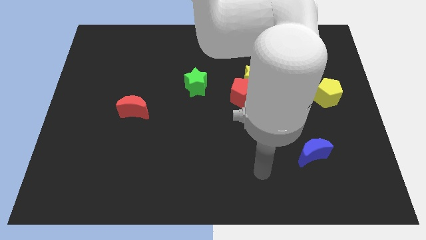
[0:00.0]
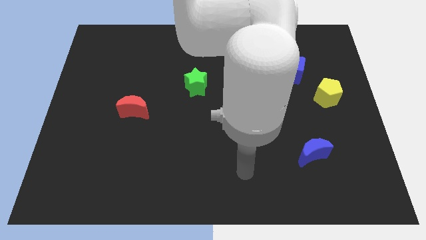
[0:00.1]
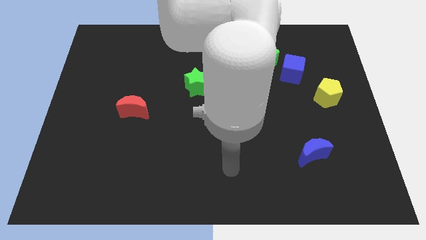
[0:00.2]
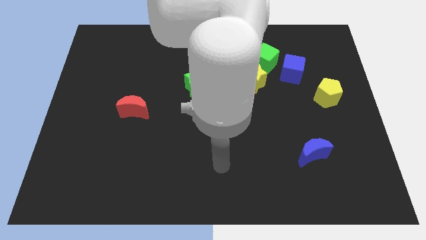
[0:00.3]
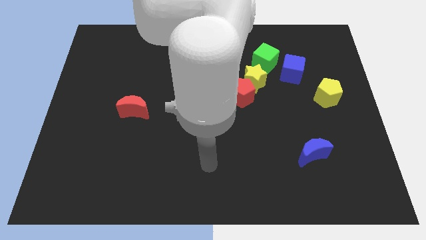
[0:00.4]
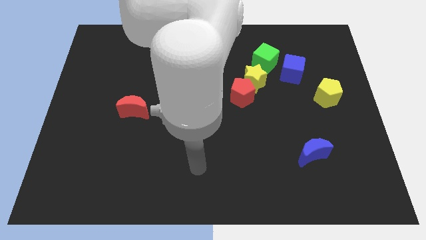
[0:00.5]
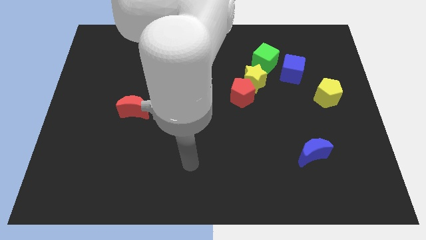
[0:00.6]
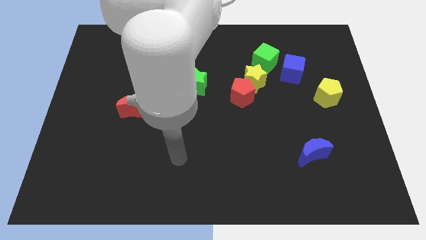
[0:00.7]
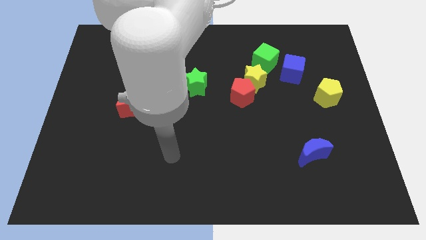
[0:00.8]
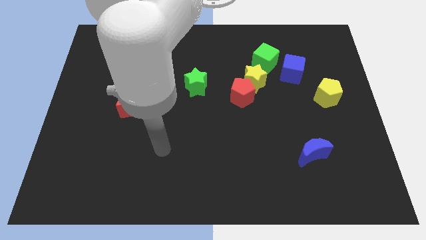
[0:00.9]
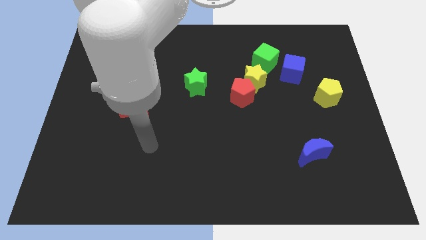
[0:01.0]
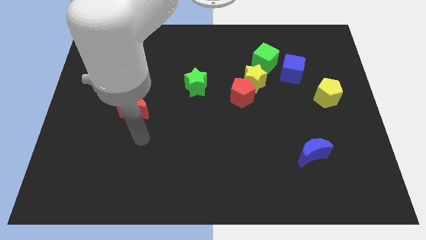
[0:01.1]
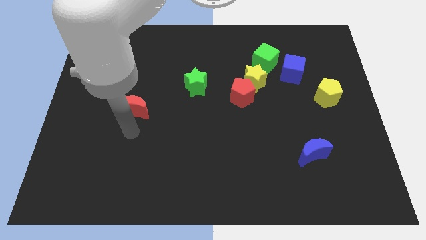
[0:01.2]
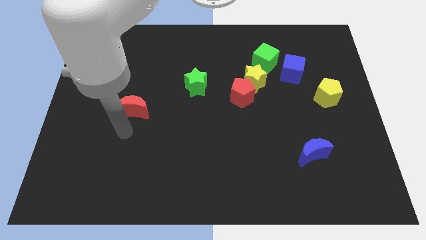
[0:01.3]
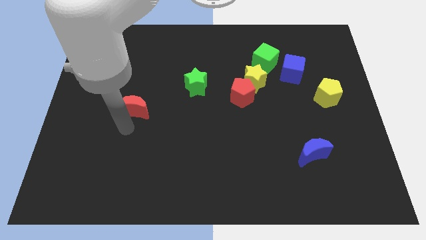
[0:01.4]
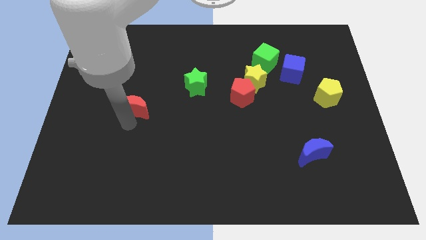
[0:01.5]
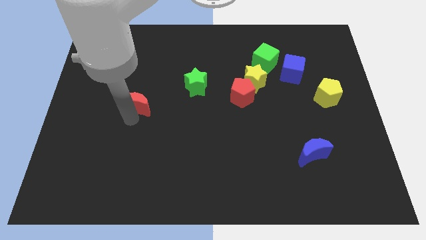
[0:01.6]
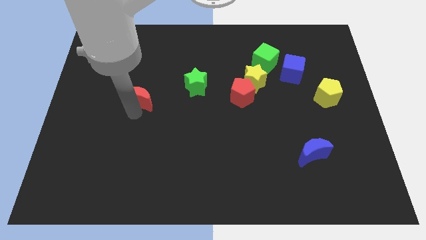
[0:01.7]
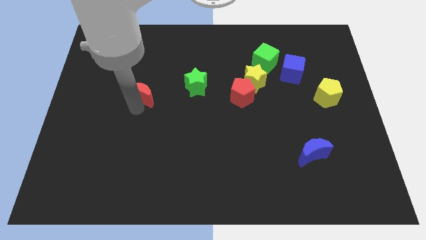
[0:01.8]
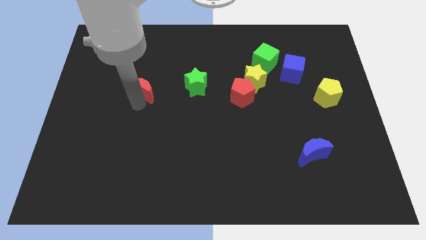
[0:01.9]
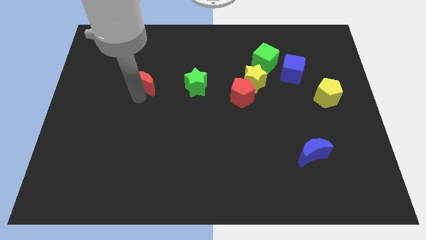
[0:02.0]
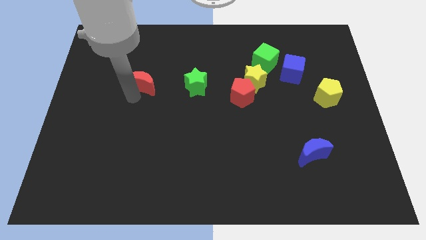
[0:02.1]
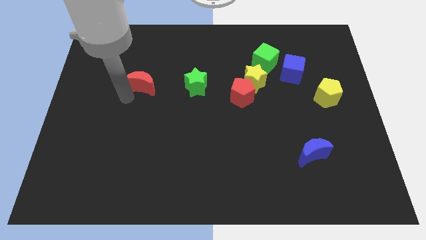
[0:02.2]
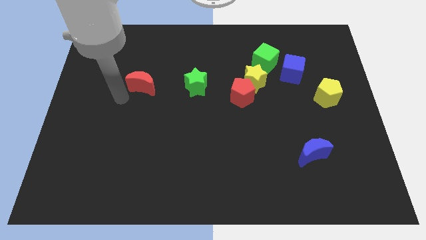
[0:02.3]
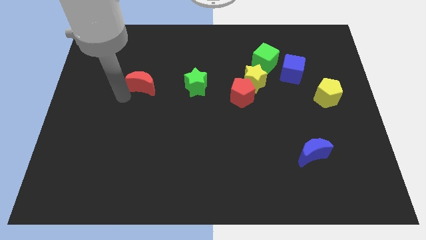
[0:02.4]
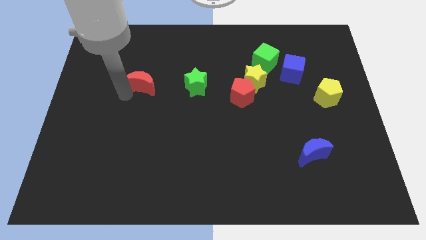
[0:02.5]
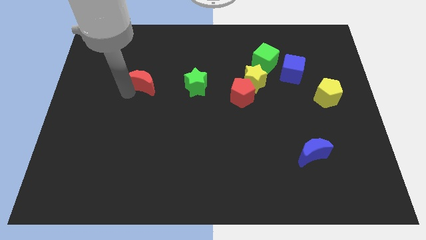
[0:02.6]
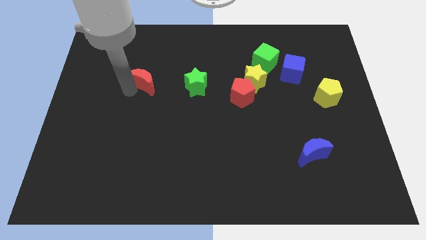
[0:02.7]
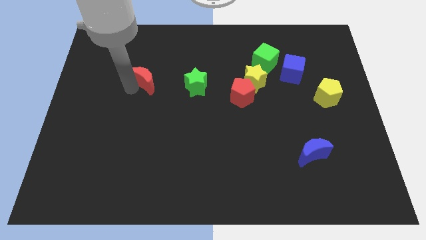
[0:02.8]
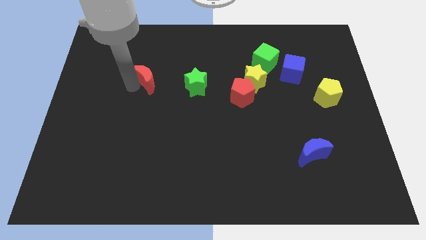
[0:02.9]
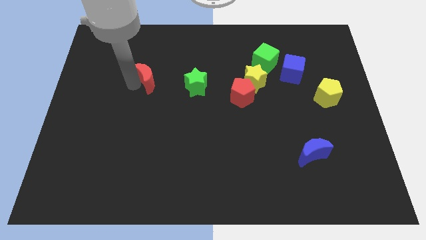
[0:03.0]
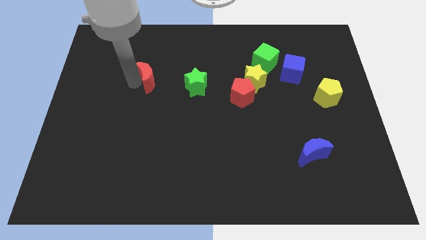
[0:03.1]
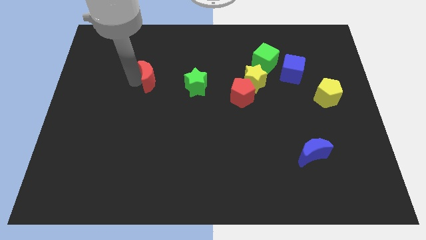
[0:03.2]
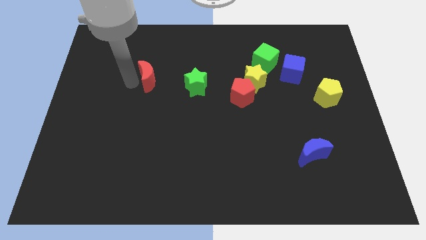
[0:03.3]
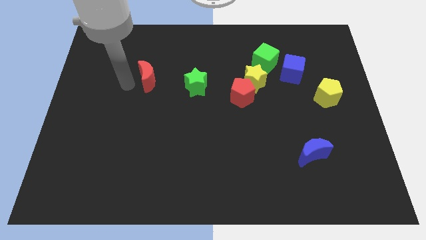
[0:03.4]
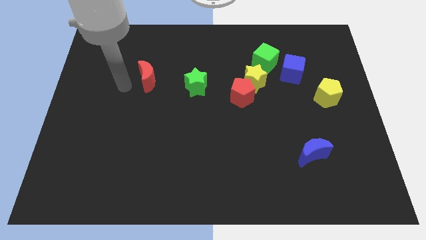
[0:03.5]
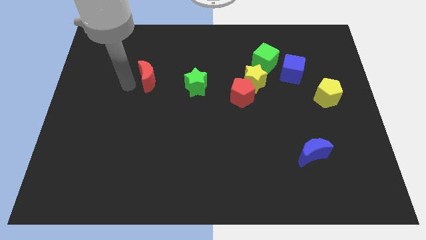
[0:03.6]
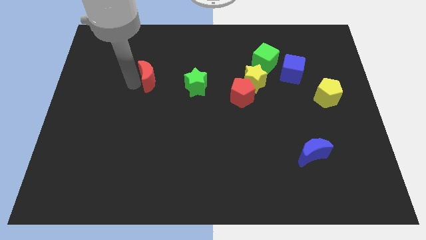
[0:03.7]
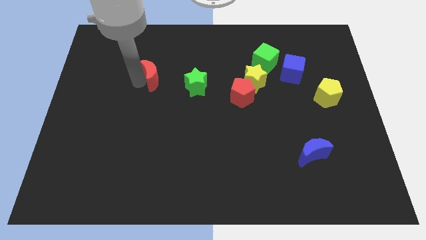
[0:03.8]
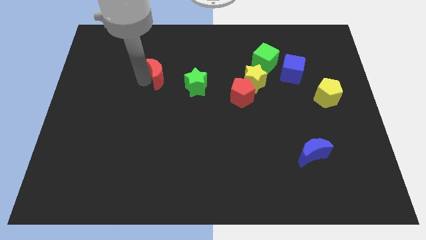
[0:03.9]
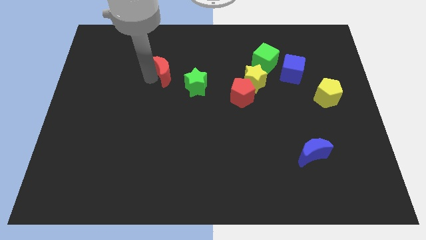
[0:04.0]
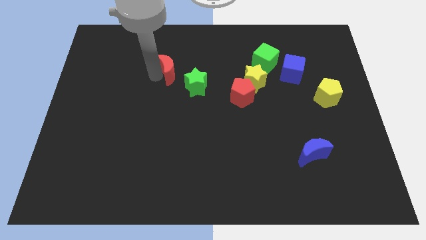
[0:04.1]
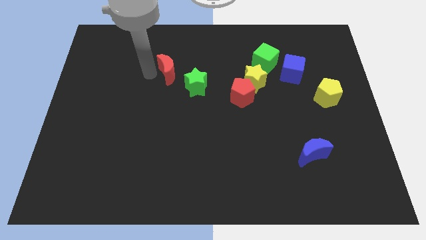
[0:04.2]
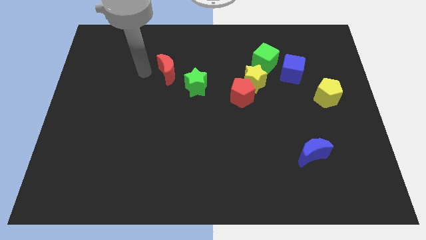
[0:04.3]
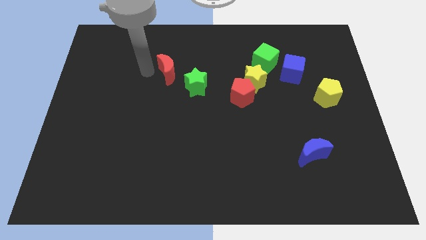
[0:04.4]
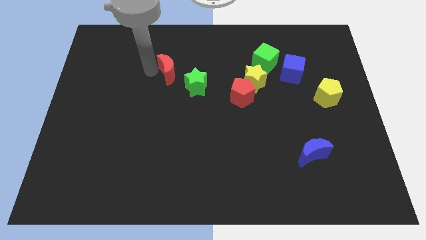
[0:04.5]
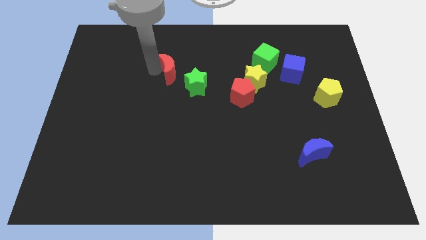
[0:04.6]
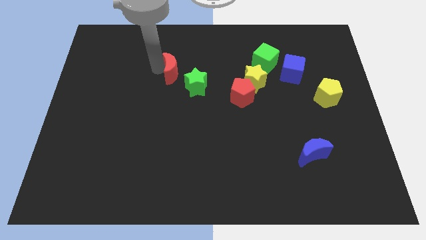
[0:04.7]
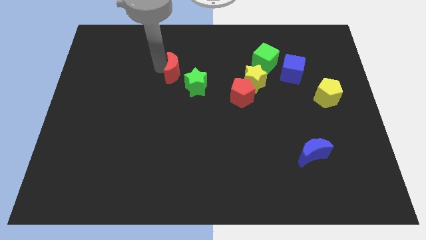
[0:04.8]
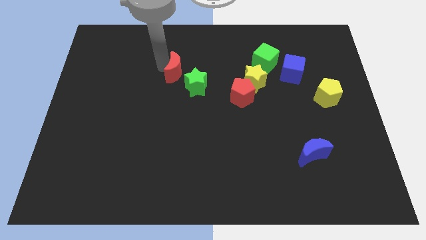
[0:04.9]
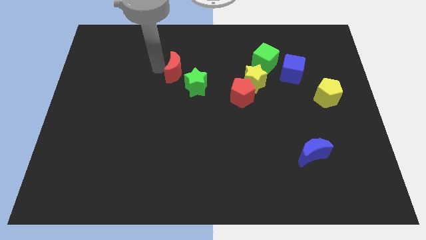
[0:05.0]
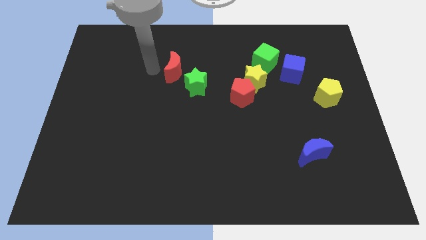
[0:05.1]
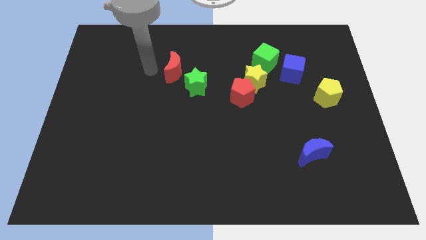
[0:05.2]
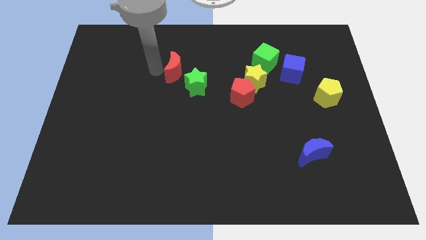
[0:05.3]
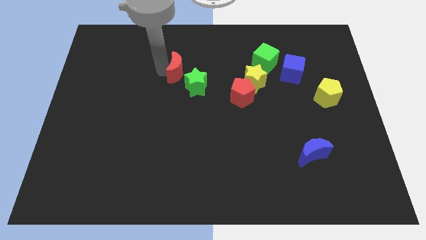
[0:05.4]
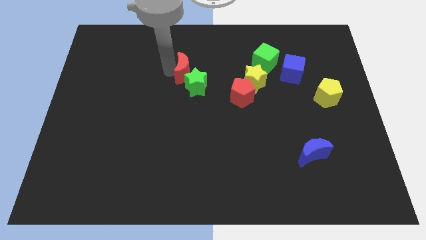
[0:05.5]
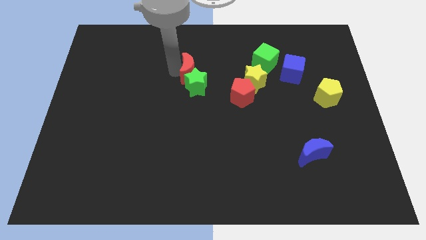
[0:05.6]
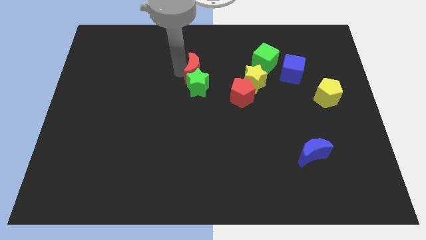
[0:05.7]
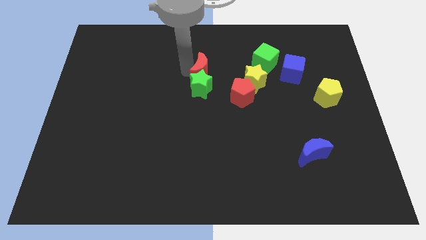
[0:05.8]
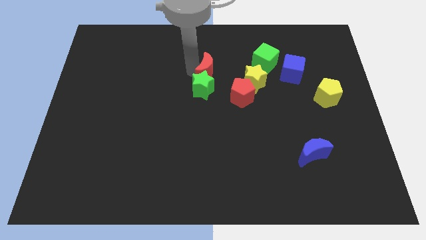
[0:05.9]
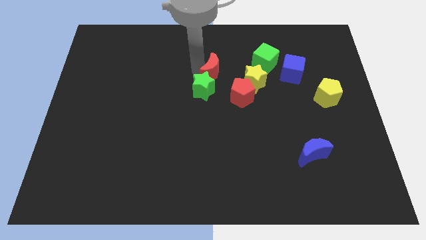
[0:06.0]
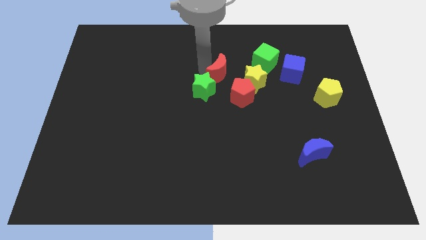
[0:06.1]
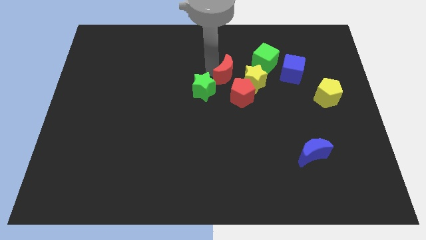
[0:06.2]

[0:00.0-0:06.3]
slide the red moon to the bottom left side of the green cube

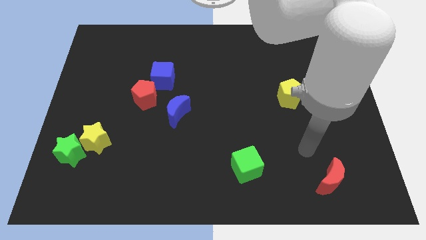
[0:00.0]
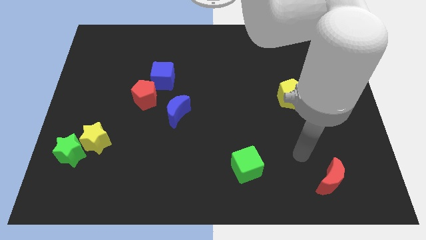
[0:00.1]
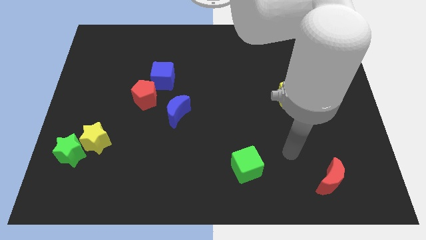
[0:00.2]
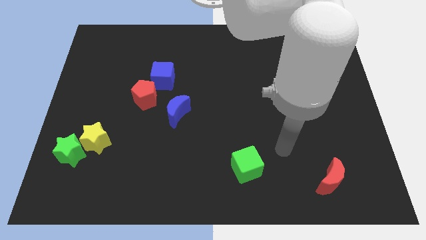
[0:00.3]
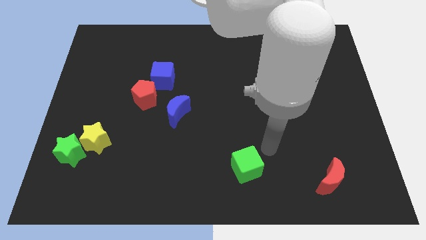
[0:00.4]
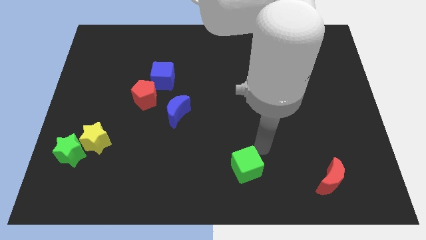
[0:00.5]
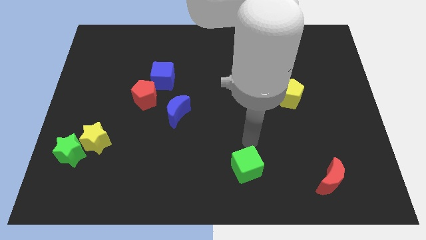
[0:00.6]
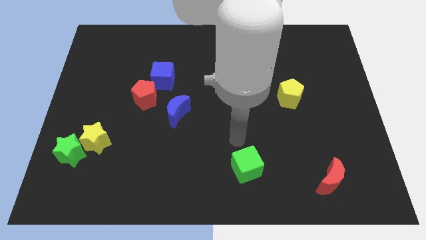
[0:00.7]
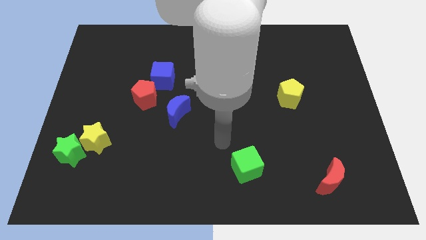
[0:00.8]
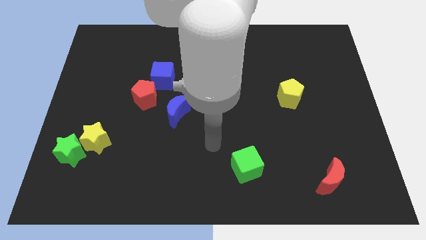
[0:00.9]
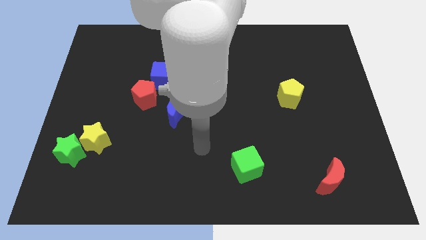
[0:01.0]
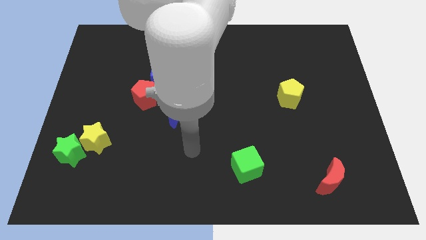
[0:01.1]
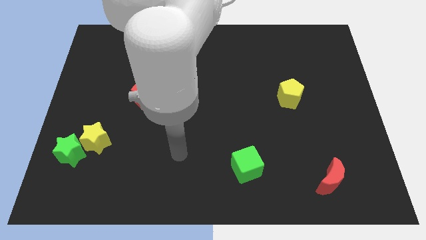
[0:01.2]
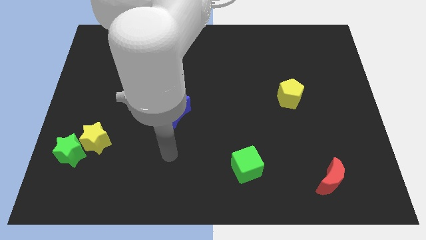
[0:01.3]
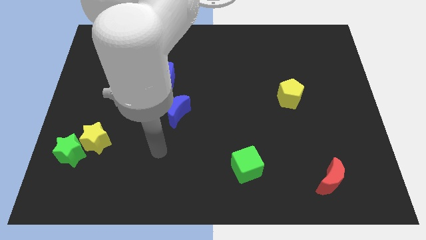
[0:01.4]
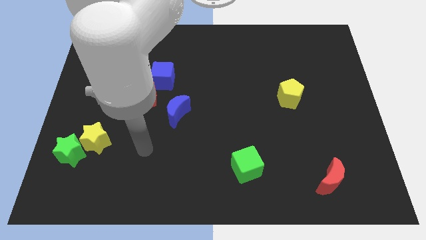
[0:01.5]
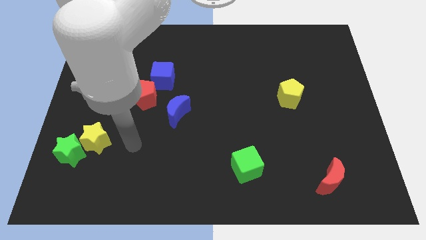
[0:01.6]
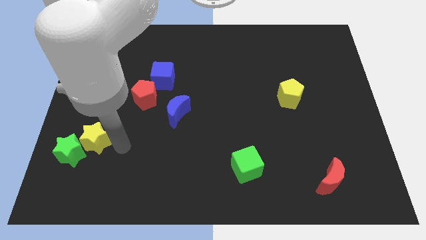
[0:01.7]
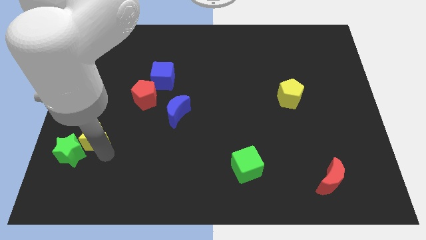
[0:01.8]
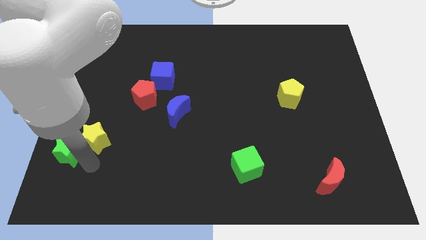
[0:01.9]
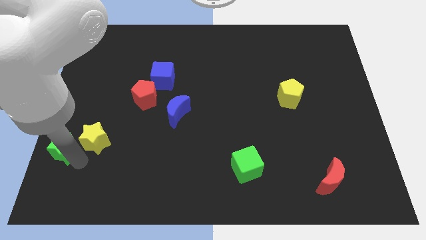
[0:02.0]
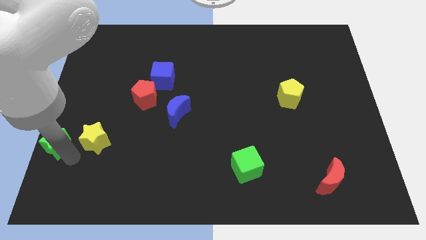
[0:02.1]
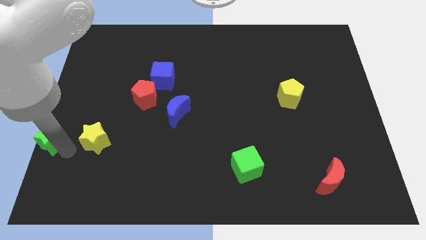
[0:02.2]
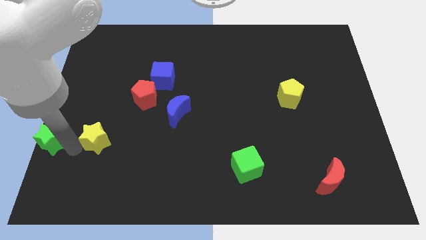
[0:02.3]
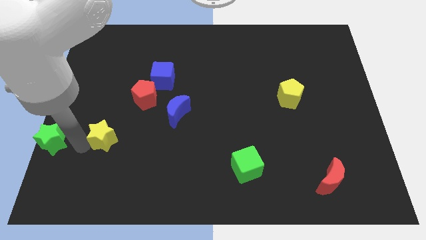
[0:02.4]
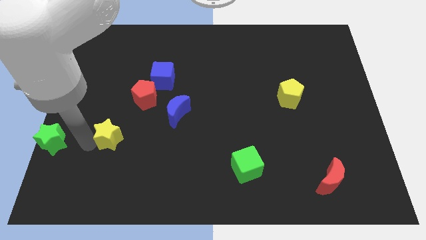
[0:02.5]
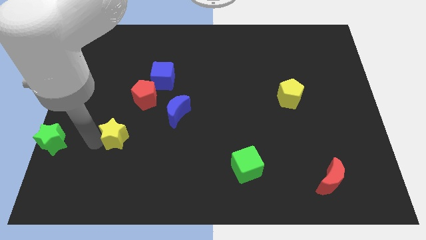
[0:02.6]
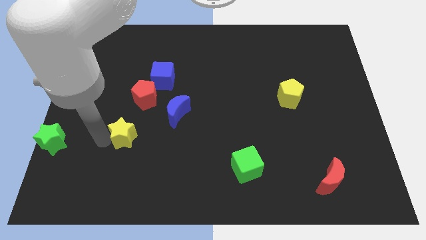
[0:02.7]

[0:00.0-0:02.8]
slide the yellow star below the red pentagon
